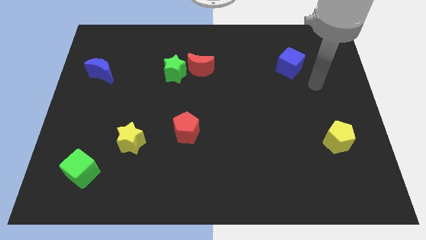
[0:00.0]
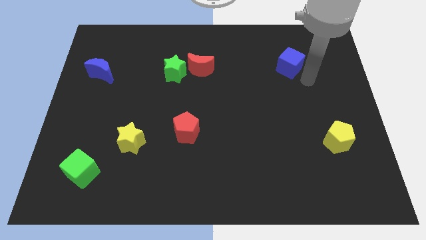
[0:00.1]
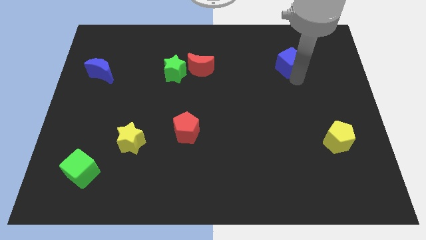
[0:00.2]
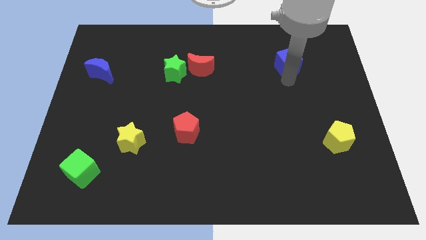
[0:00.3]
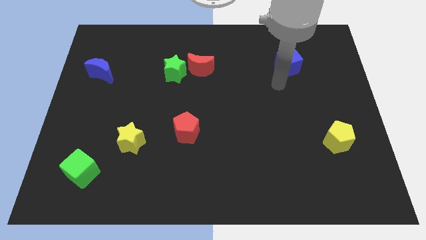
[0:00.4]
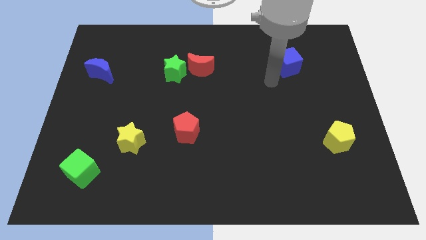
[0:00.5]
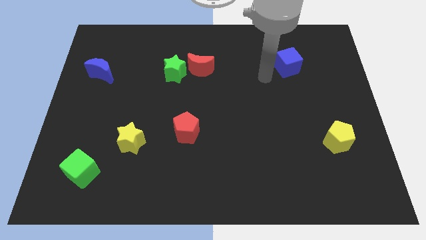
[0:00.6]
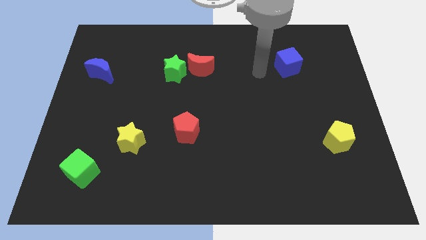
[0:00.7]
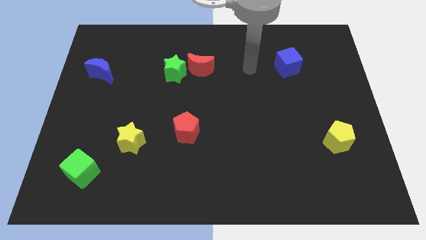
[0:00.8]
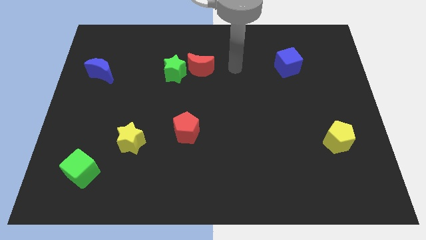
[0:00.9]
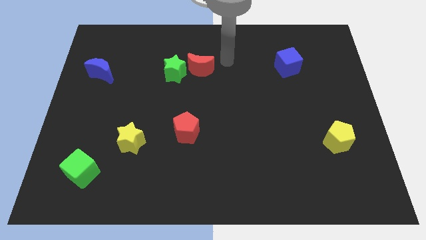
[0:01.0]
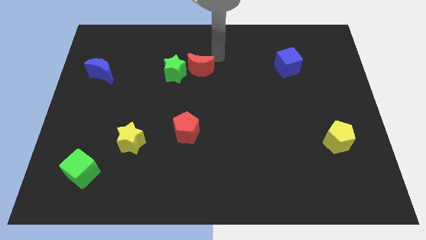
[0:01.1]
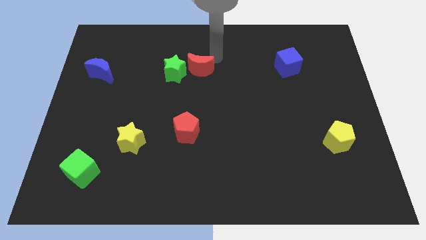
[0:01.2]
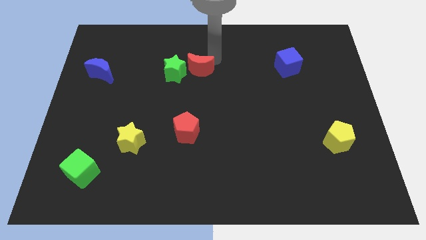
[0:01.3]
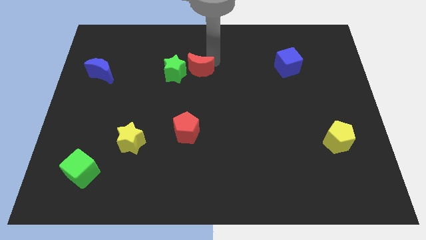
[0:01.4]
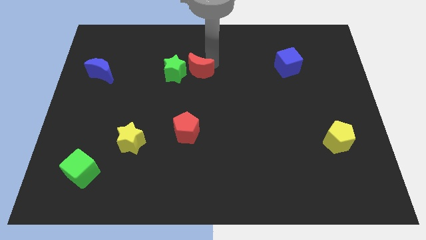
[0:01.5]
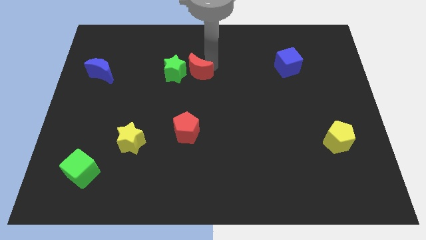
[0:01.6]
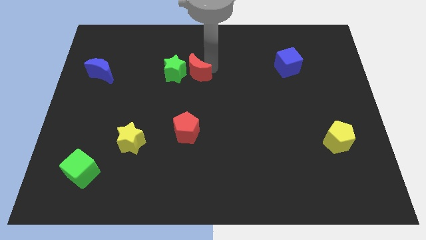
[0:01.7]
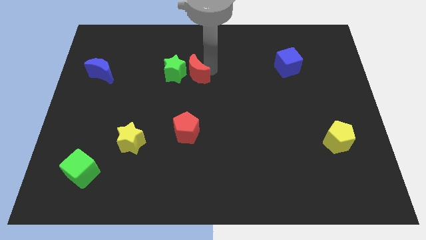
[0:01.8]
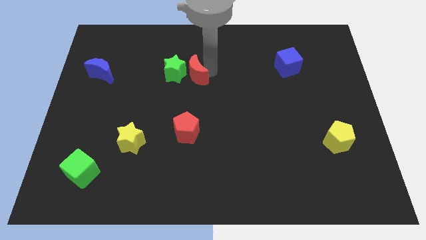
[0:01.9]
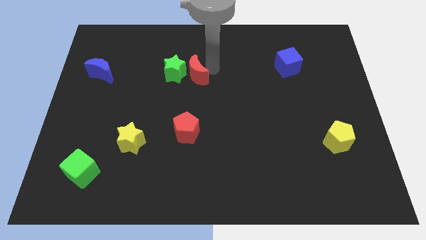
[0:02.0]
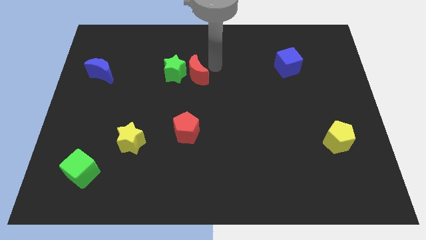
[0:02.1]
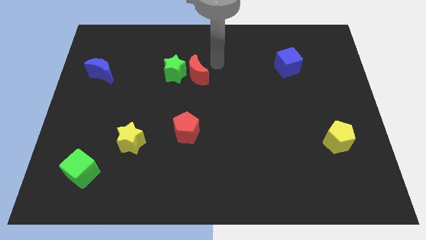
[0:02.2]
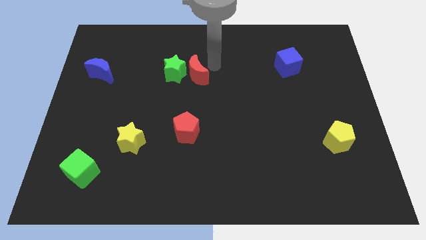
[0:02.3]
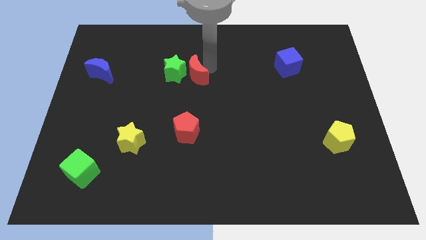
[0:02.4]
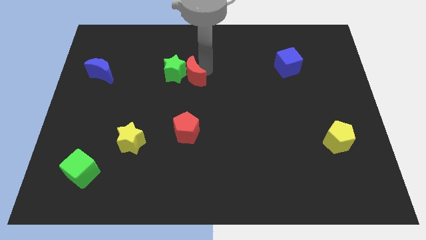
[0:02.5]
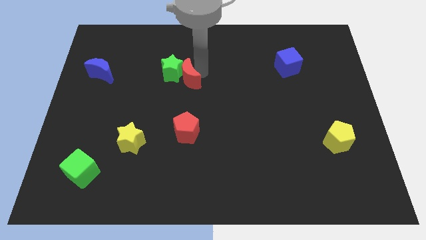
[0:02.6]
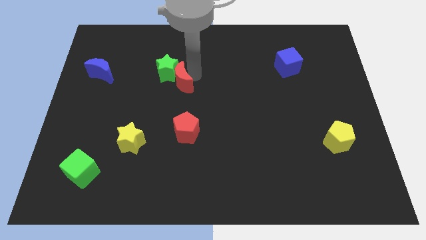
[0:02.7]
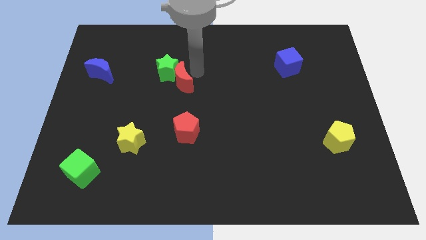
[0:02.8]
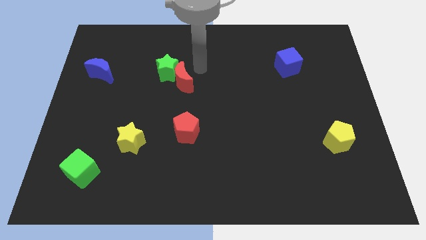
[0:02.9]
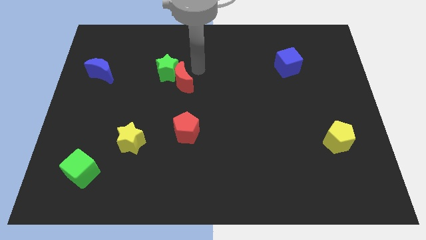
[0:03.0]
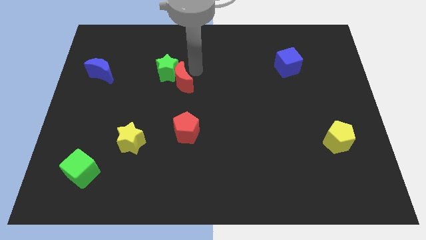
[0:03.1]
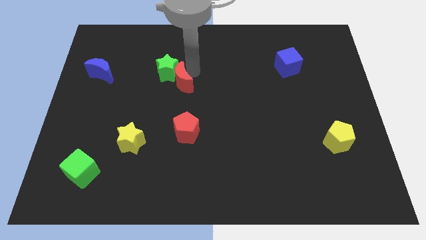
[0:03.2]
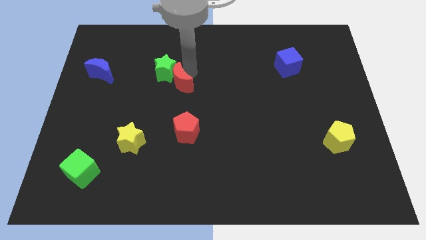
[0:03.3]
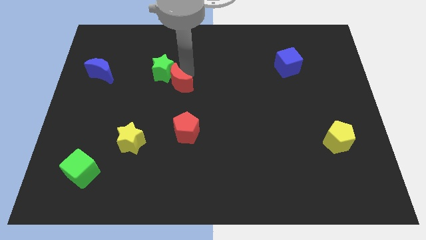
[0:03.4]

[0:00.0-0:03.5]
slightly push the red moon downwards and to the left diagonally

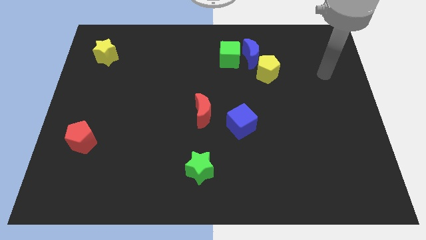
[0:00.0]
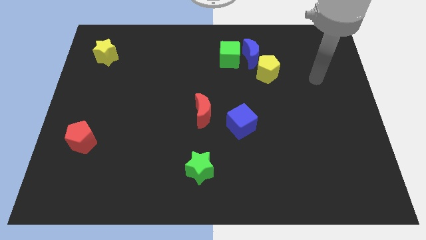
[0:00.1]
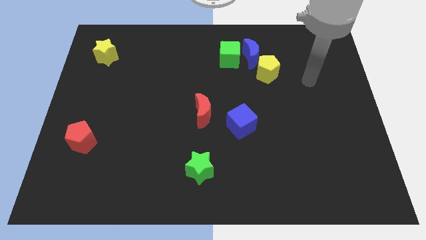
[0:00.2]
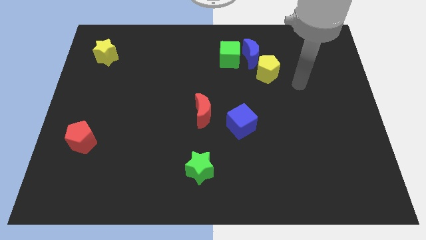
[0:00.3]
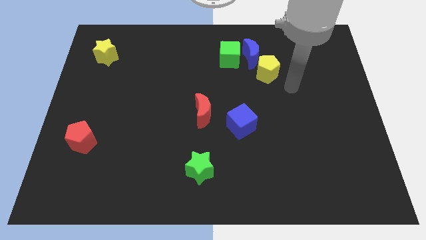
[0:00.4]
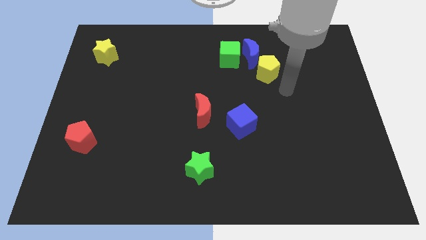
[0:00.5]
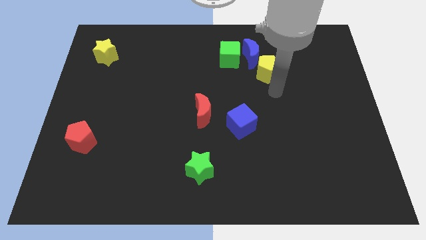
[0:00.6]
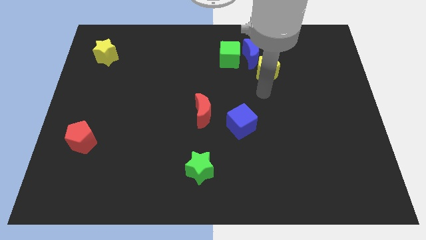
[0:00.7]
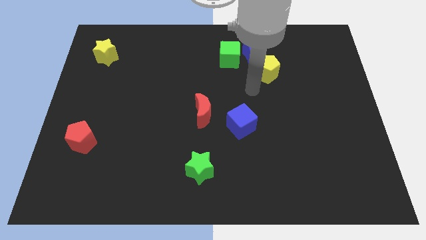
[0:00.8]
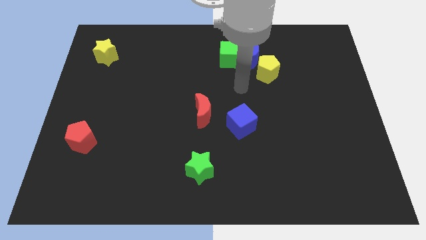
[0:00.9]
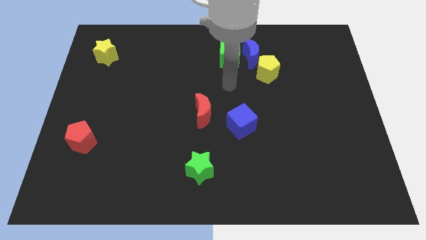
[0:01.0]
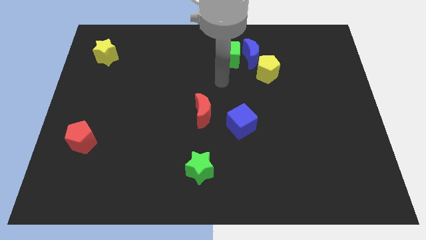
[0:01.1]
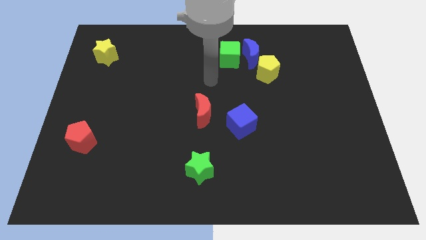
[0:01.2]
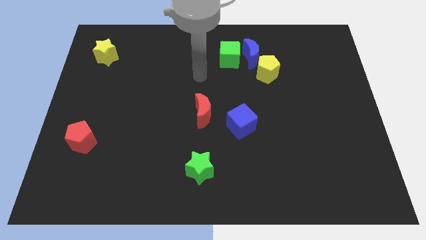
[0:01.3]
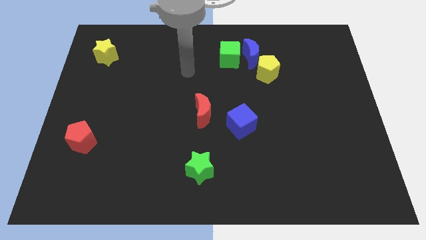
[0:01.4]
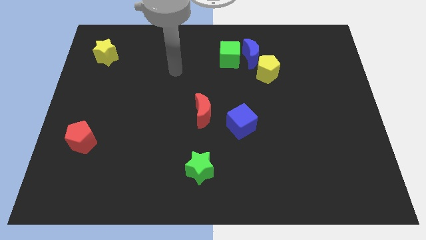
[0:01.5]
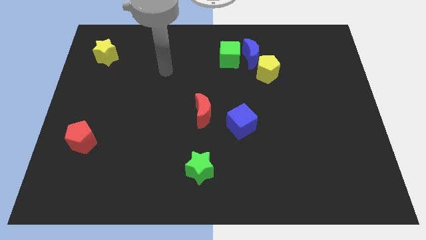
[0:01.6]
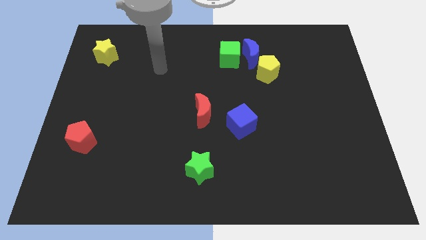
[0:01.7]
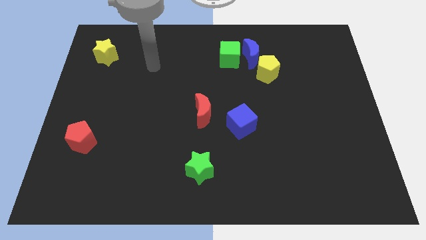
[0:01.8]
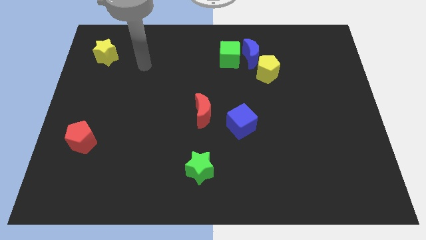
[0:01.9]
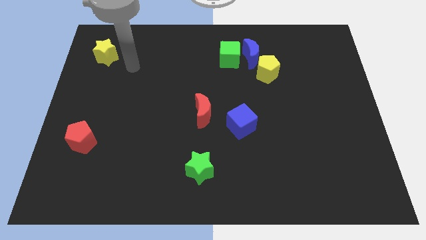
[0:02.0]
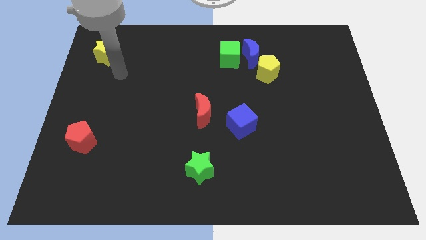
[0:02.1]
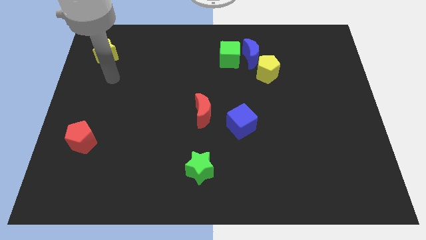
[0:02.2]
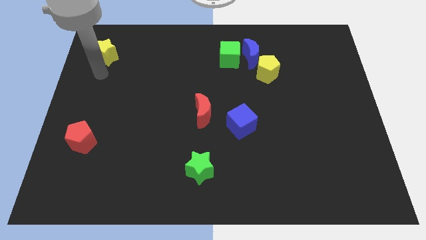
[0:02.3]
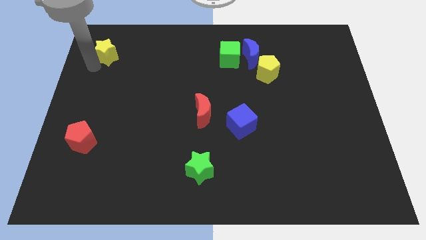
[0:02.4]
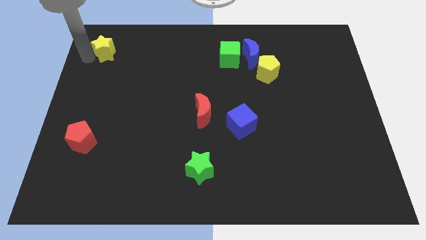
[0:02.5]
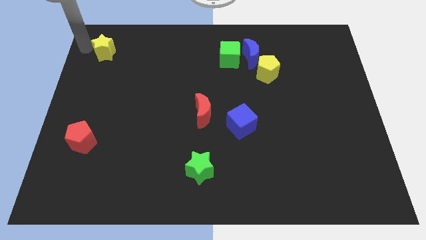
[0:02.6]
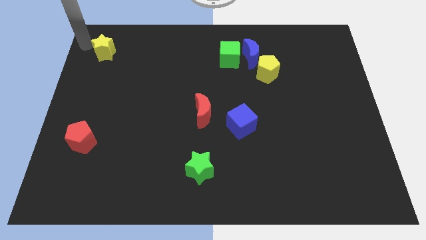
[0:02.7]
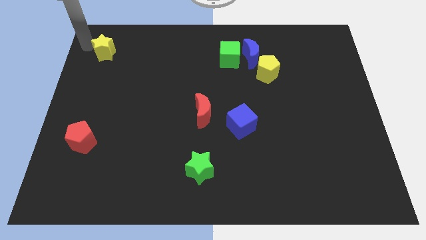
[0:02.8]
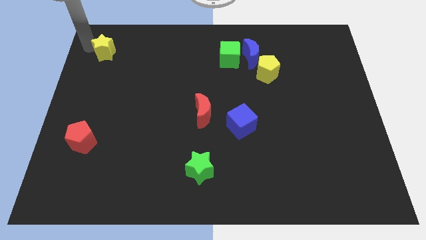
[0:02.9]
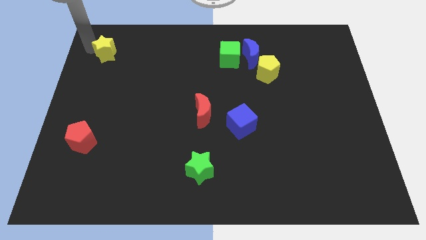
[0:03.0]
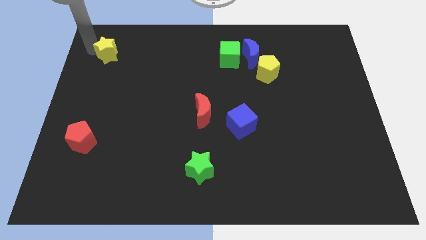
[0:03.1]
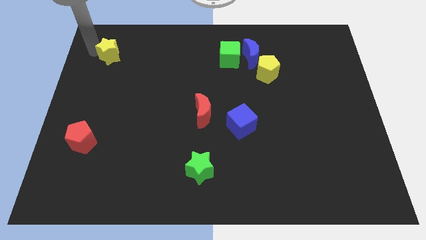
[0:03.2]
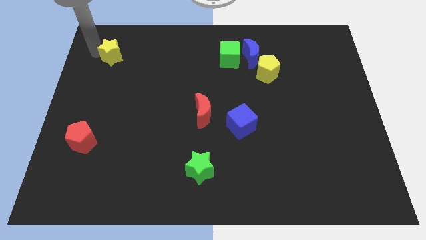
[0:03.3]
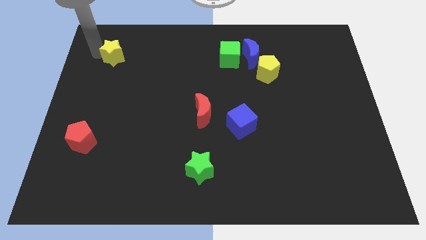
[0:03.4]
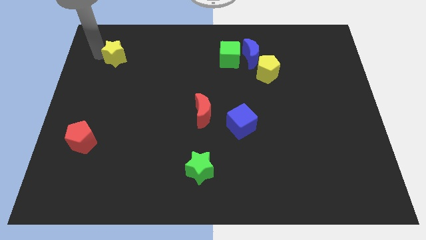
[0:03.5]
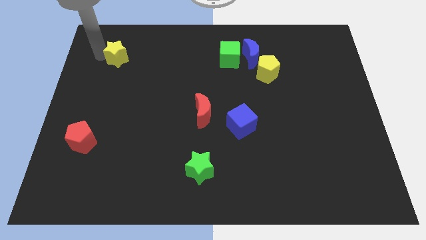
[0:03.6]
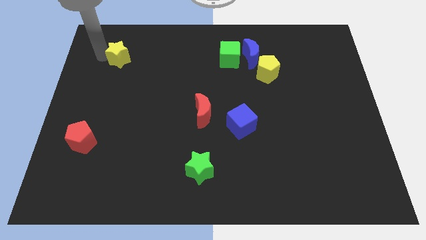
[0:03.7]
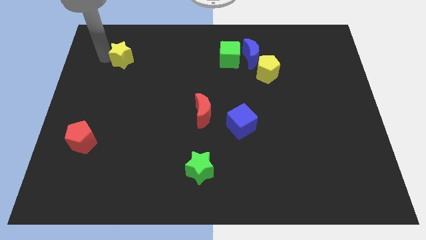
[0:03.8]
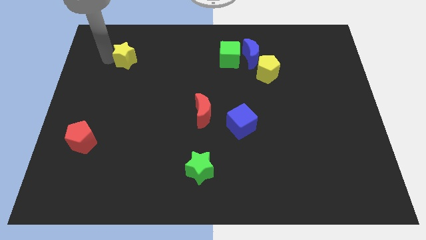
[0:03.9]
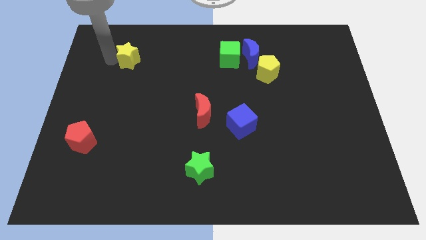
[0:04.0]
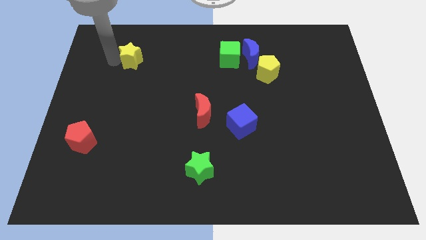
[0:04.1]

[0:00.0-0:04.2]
move the yellow star slightly to the right
